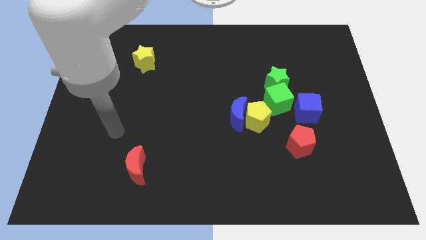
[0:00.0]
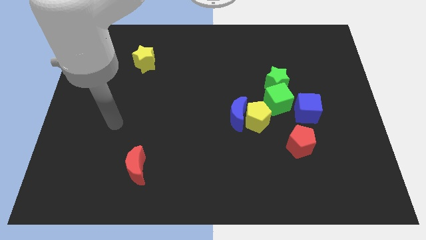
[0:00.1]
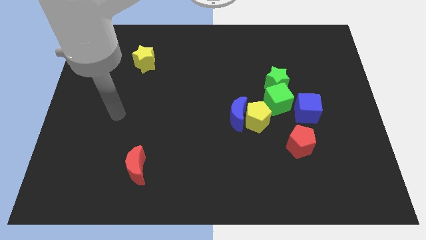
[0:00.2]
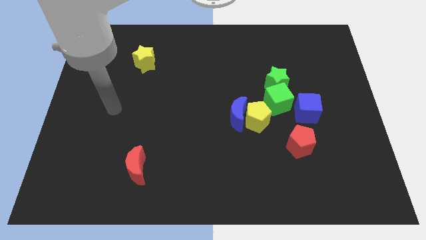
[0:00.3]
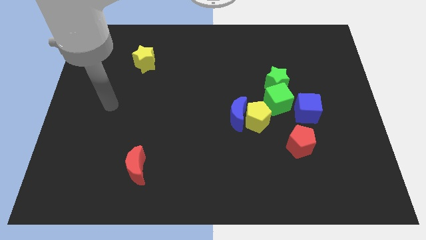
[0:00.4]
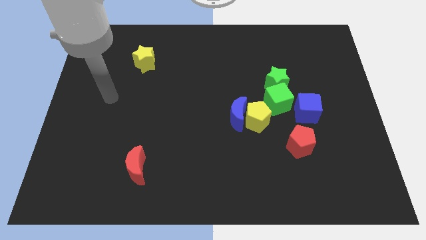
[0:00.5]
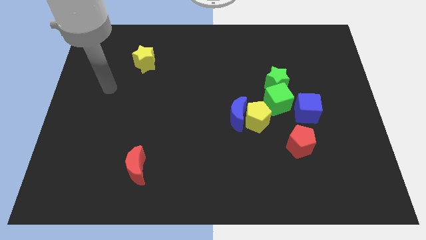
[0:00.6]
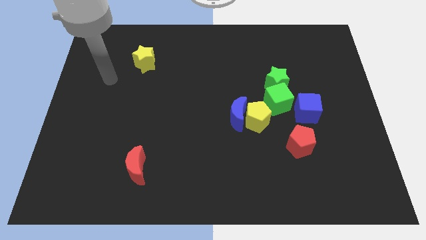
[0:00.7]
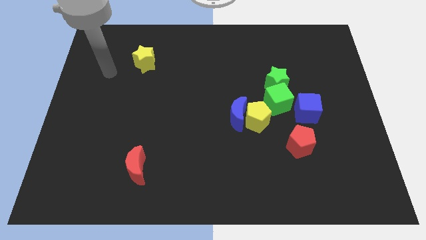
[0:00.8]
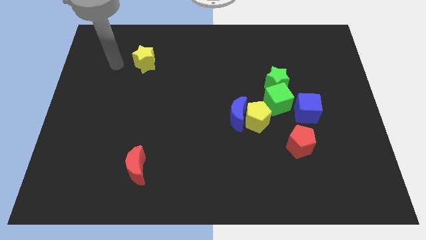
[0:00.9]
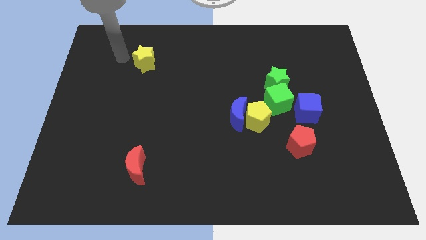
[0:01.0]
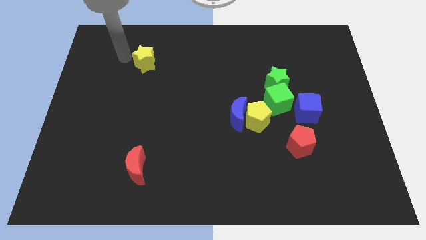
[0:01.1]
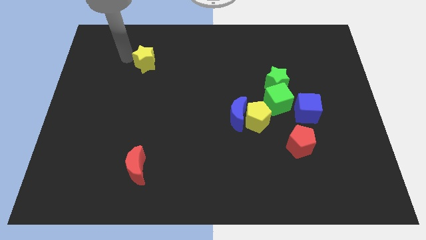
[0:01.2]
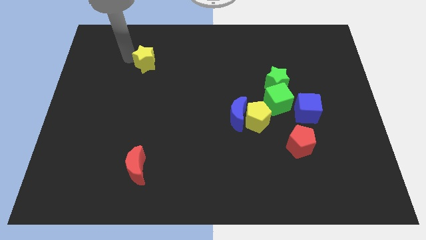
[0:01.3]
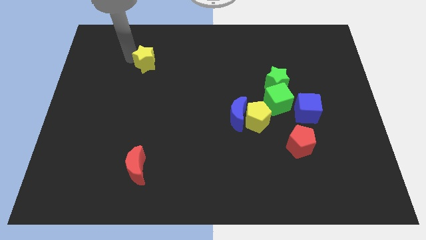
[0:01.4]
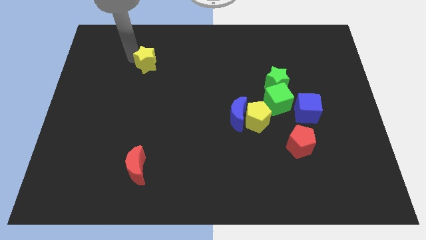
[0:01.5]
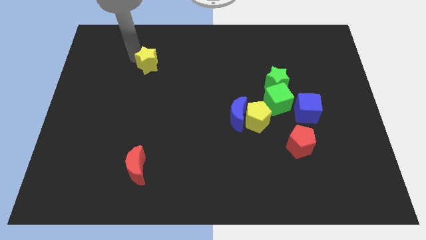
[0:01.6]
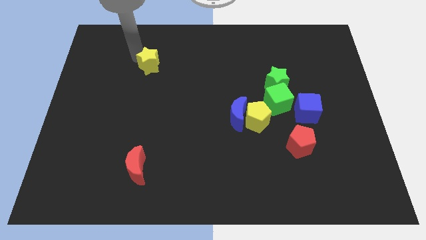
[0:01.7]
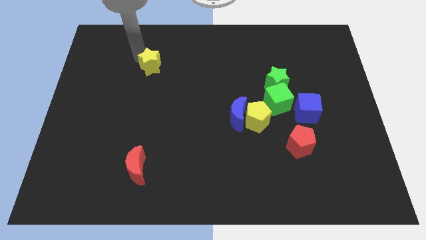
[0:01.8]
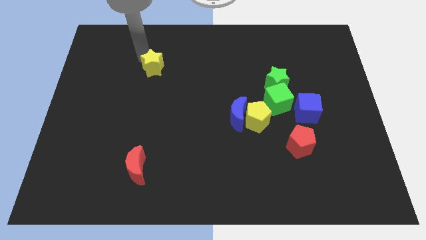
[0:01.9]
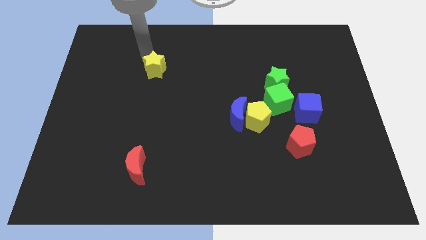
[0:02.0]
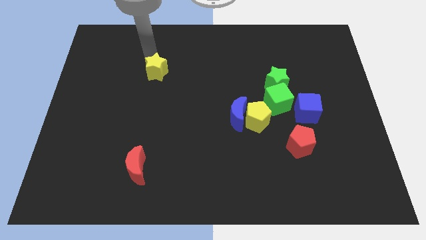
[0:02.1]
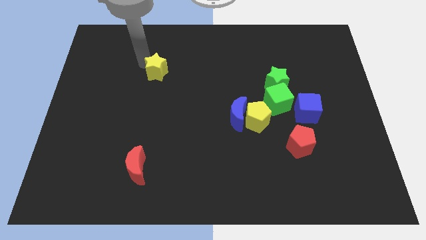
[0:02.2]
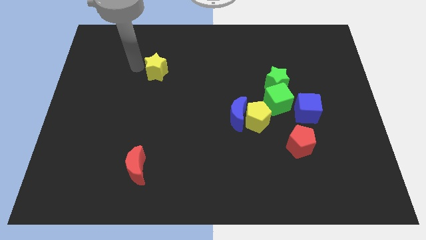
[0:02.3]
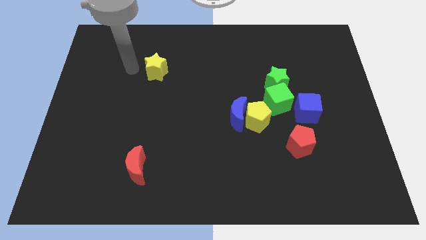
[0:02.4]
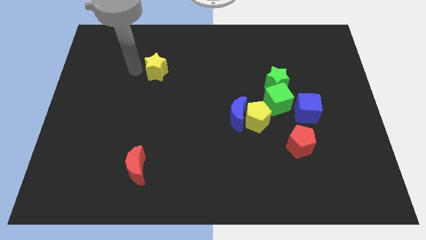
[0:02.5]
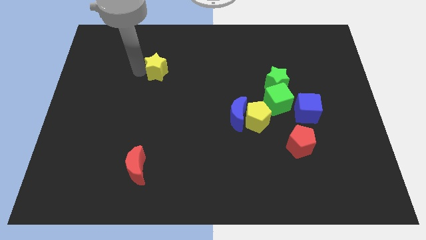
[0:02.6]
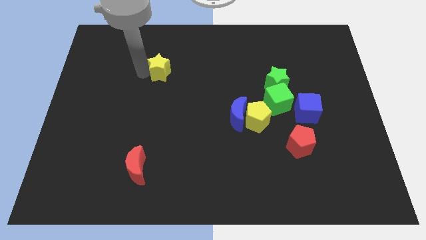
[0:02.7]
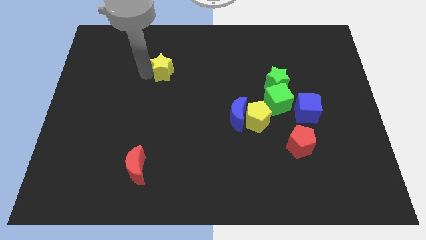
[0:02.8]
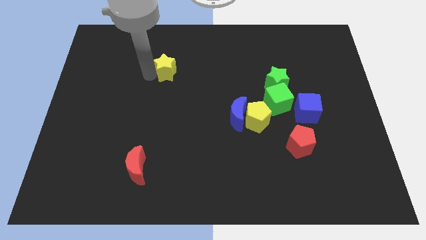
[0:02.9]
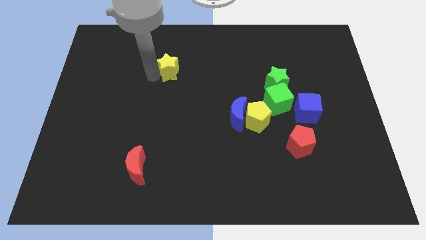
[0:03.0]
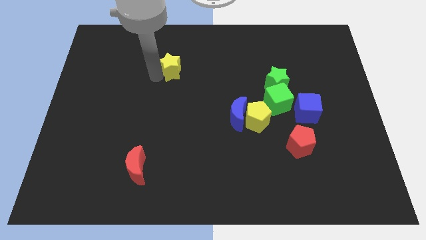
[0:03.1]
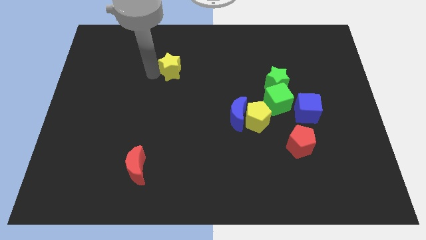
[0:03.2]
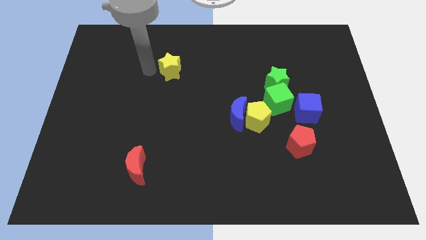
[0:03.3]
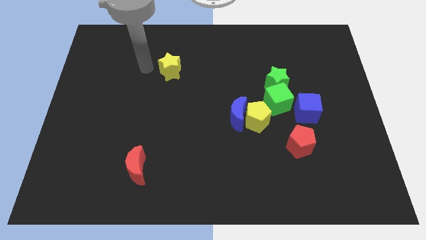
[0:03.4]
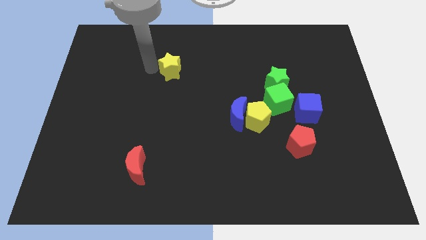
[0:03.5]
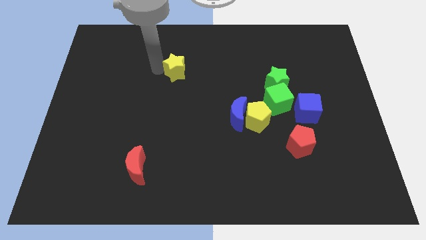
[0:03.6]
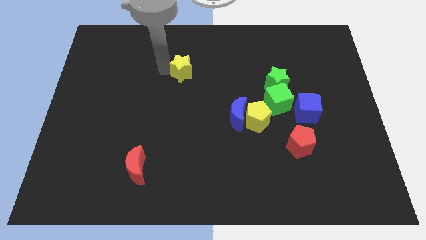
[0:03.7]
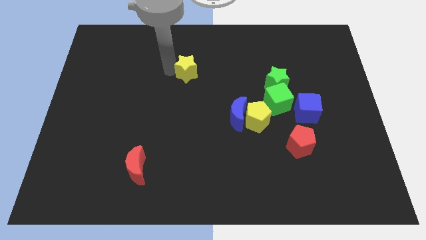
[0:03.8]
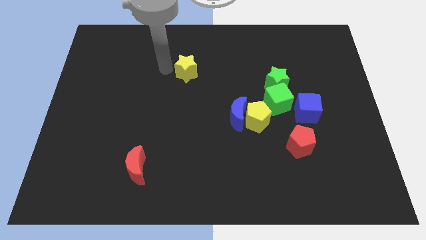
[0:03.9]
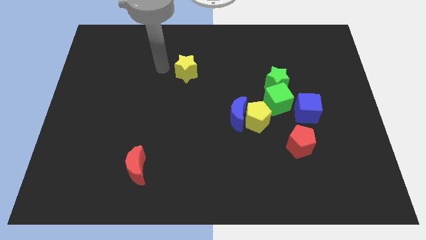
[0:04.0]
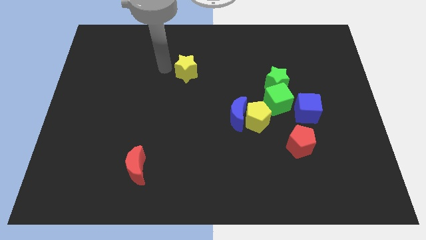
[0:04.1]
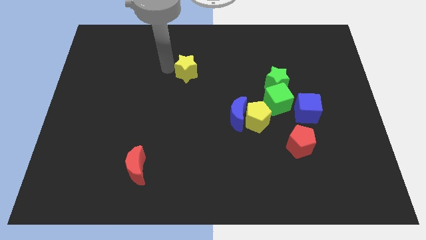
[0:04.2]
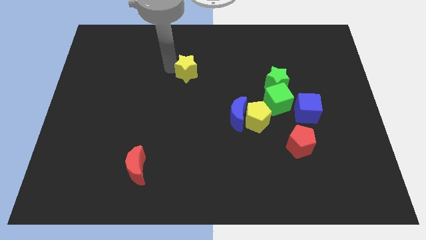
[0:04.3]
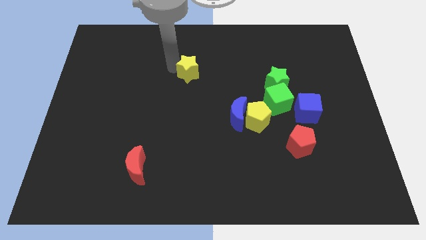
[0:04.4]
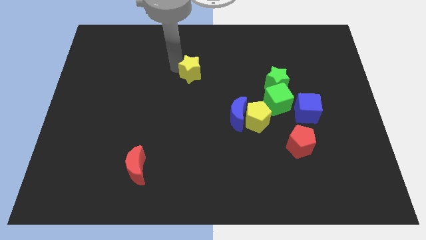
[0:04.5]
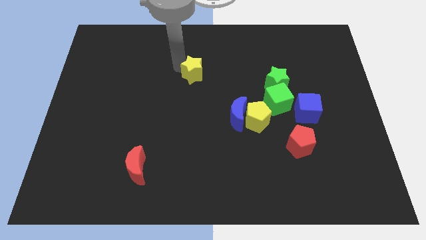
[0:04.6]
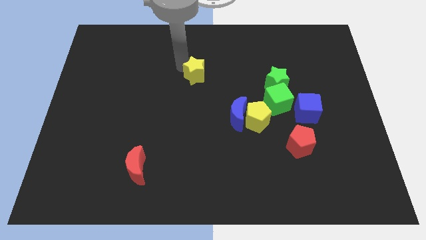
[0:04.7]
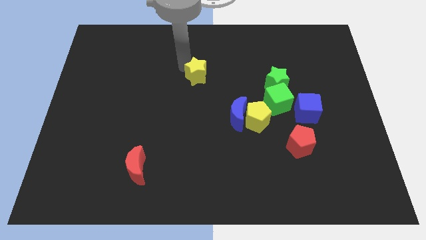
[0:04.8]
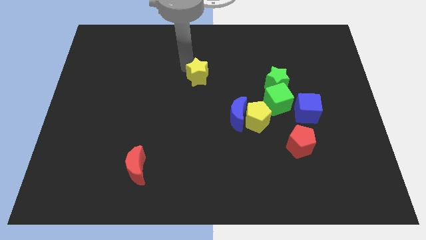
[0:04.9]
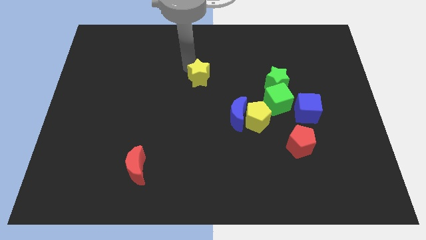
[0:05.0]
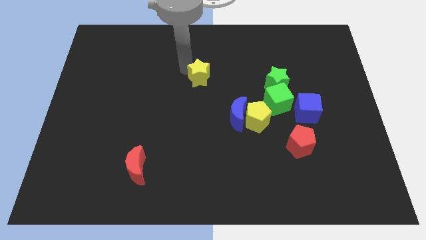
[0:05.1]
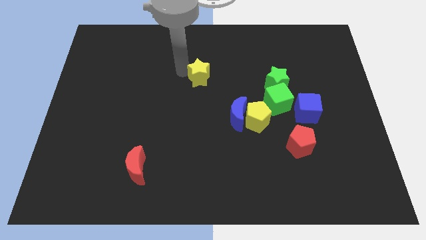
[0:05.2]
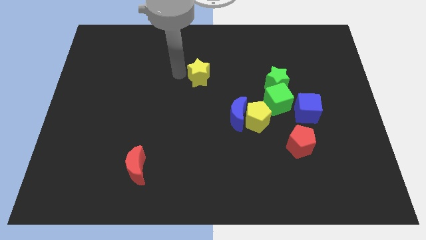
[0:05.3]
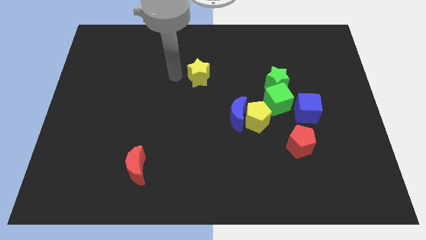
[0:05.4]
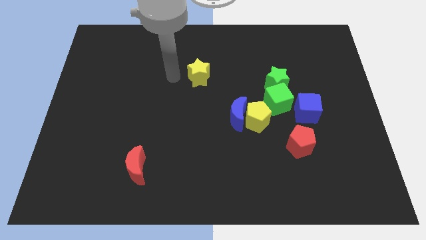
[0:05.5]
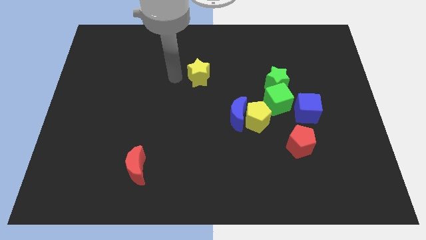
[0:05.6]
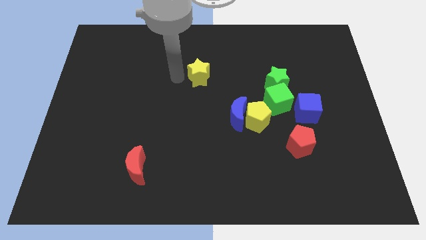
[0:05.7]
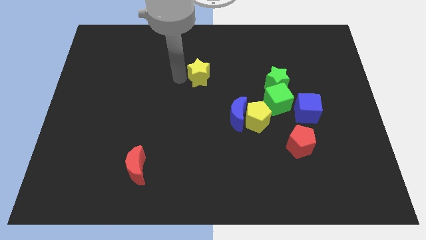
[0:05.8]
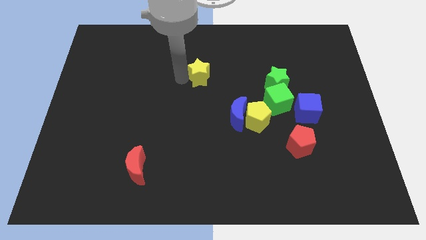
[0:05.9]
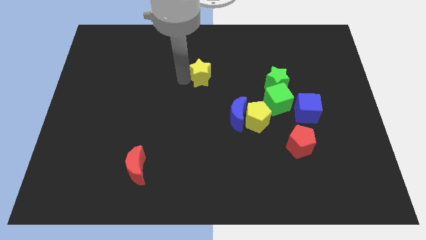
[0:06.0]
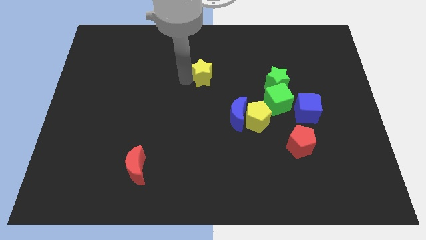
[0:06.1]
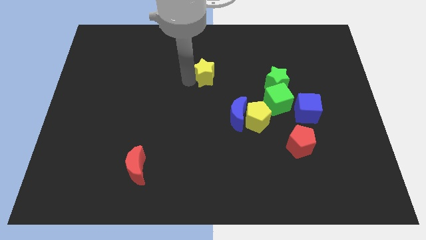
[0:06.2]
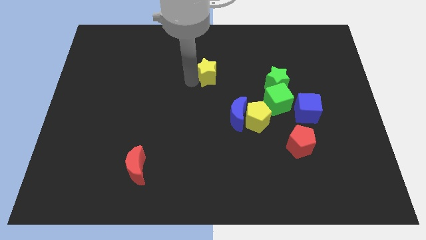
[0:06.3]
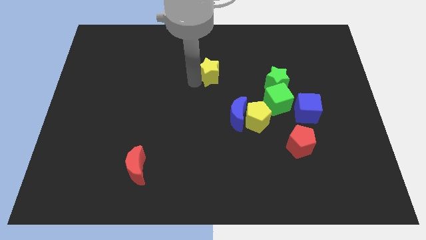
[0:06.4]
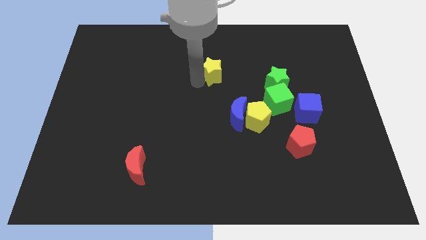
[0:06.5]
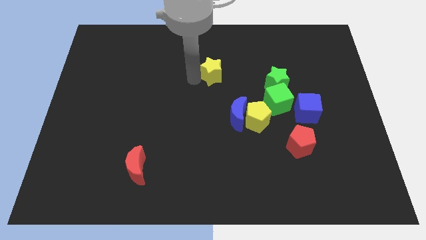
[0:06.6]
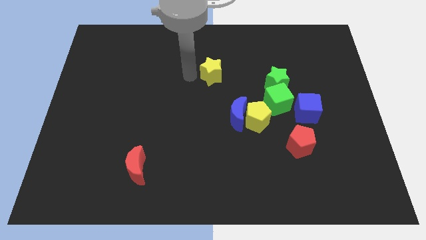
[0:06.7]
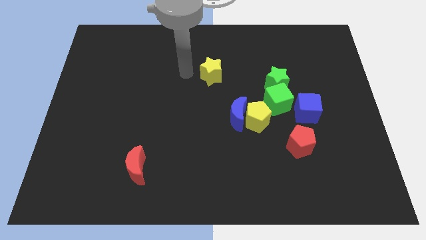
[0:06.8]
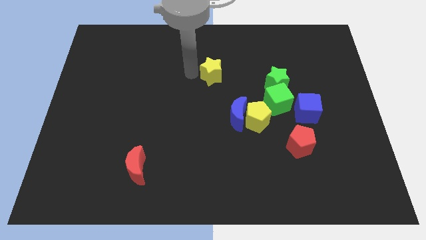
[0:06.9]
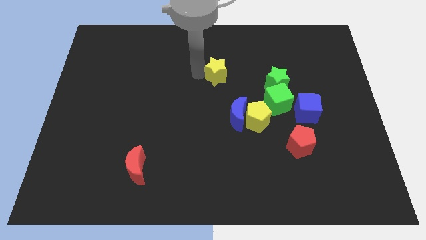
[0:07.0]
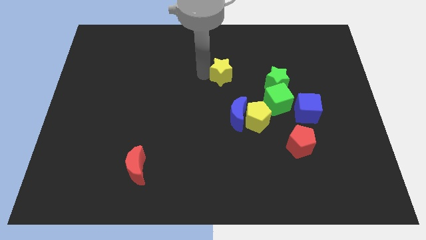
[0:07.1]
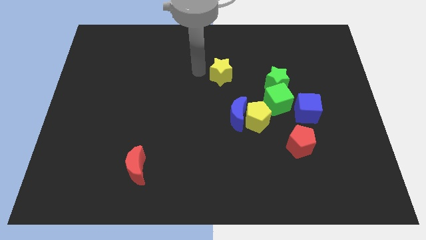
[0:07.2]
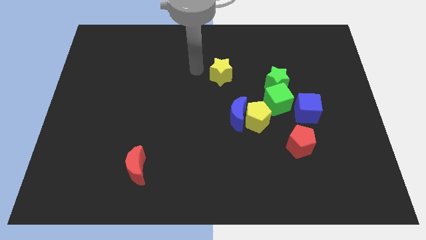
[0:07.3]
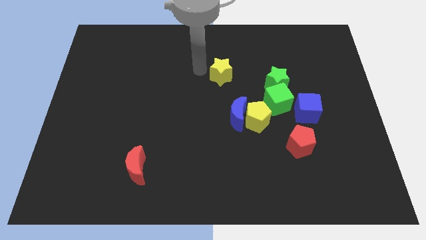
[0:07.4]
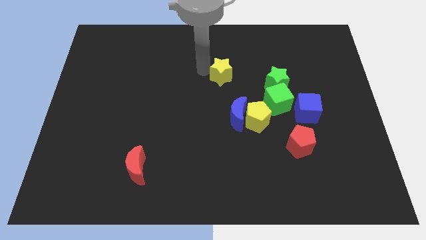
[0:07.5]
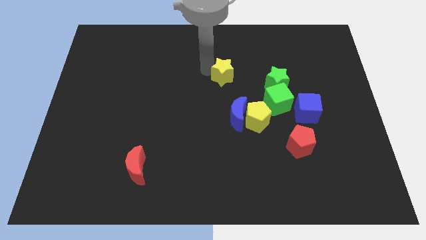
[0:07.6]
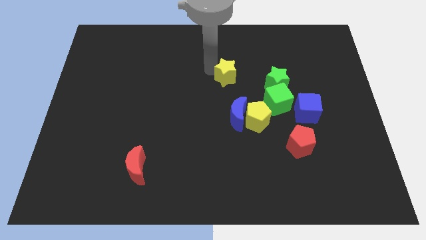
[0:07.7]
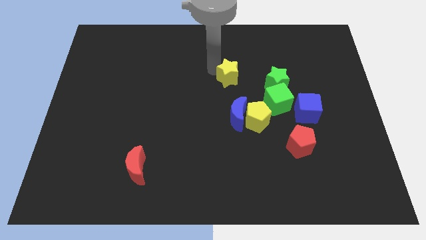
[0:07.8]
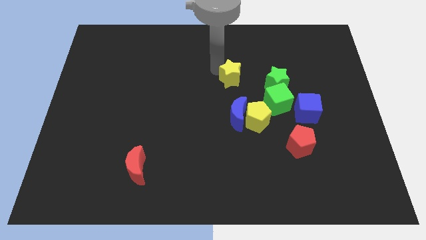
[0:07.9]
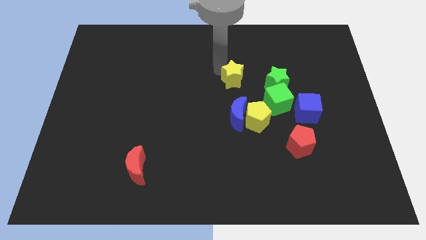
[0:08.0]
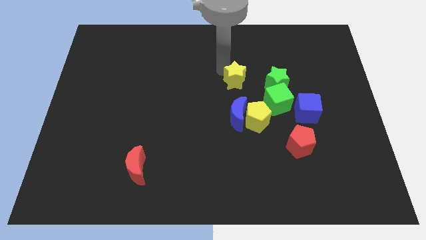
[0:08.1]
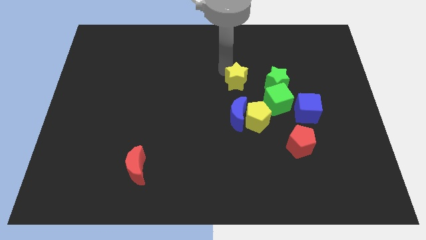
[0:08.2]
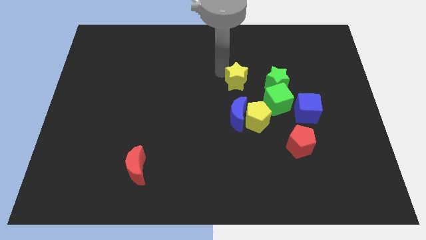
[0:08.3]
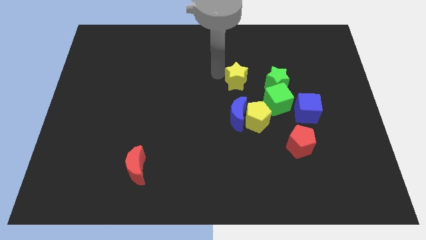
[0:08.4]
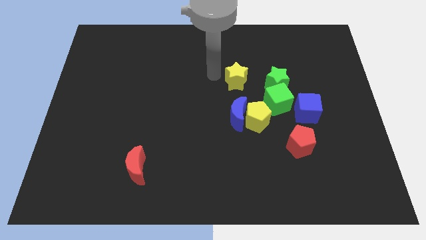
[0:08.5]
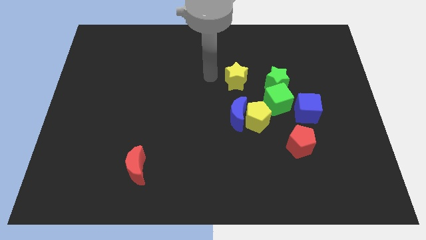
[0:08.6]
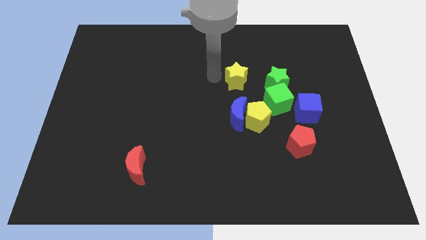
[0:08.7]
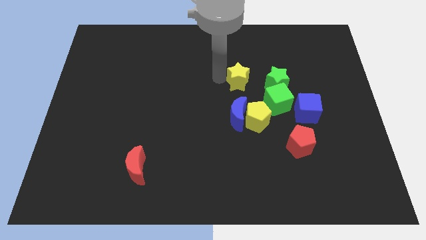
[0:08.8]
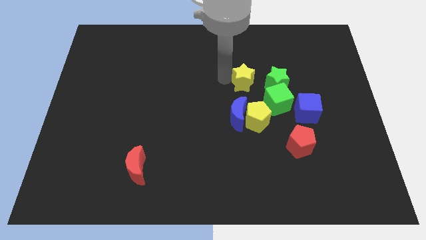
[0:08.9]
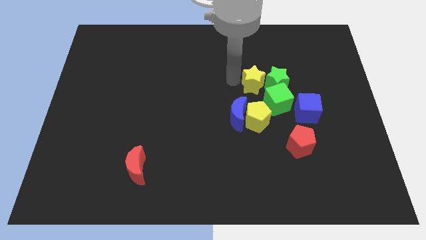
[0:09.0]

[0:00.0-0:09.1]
slide the yellow star next to the green star
